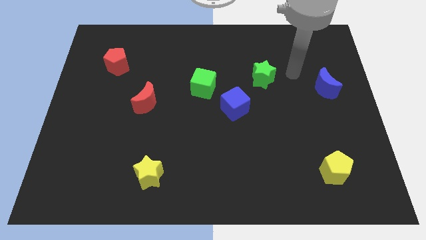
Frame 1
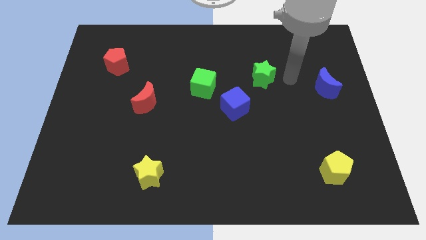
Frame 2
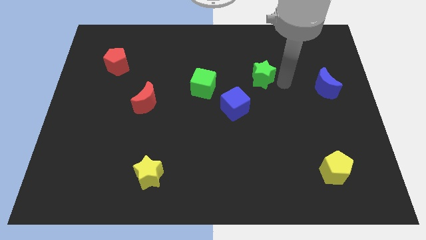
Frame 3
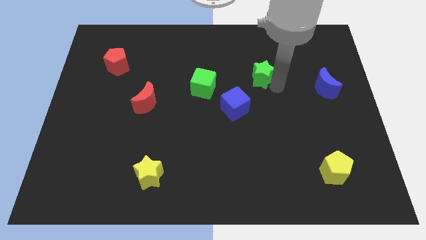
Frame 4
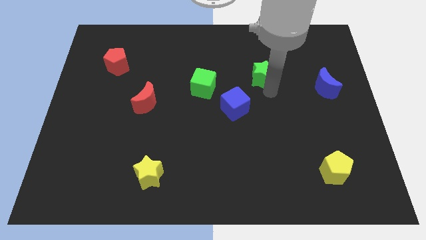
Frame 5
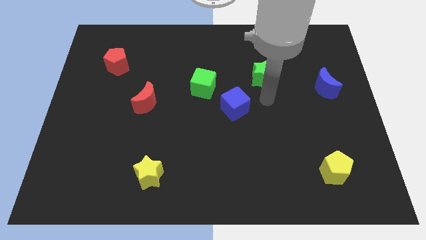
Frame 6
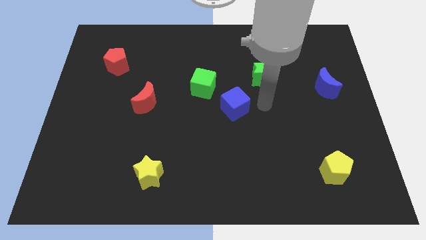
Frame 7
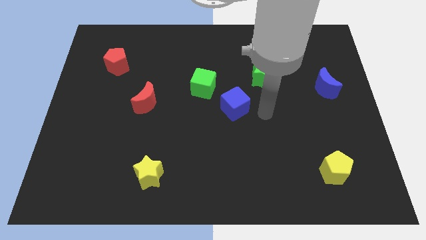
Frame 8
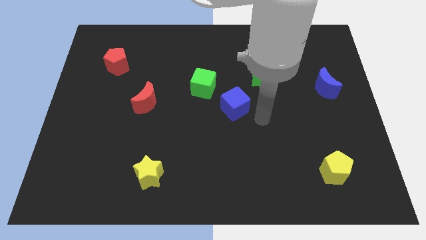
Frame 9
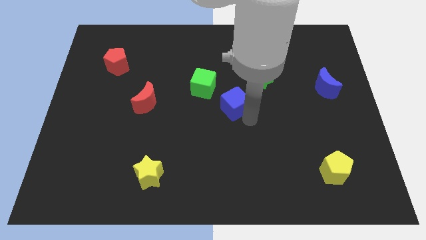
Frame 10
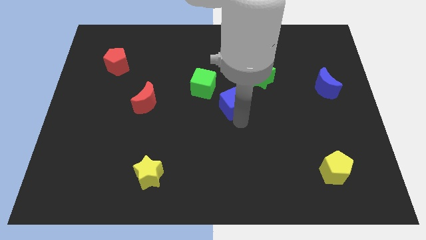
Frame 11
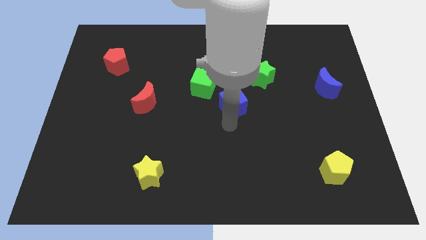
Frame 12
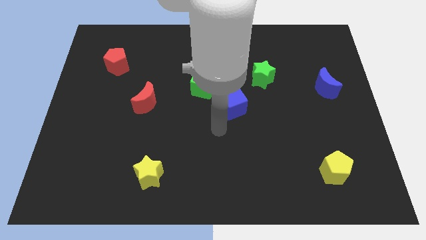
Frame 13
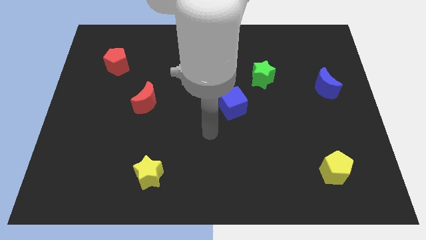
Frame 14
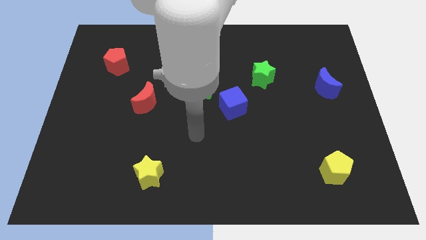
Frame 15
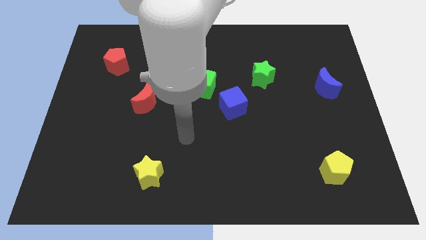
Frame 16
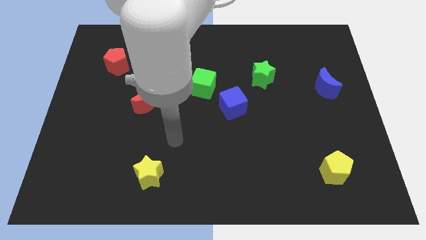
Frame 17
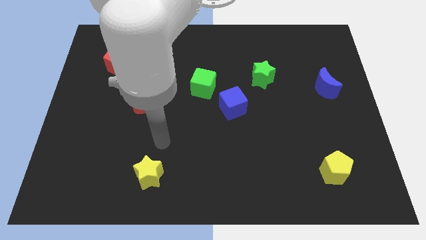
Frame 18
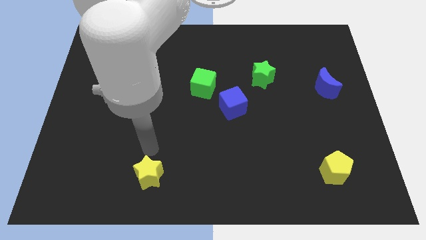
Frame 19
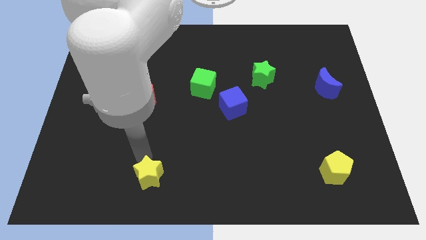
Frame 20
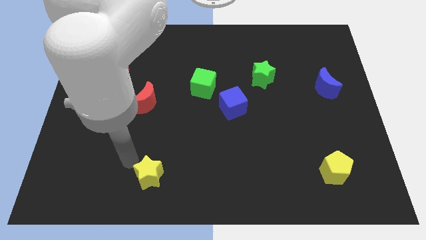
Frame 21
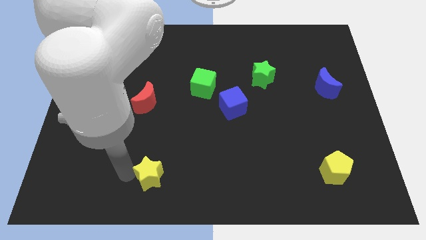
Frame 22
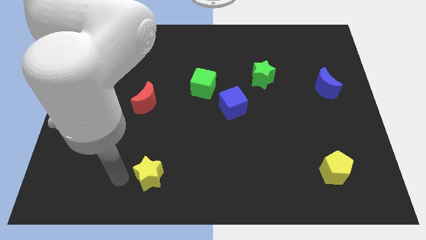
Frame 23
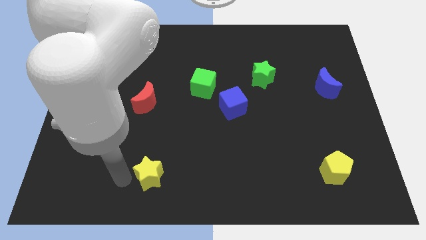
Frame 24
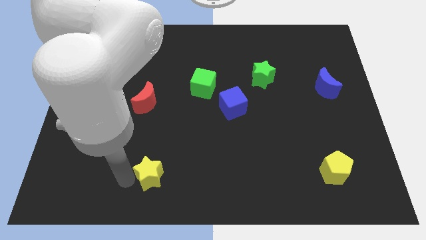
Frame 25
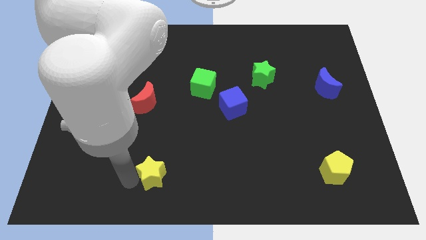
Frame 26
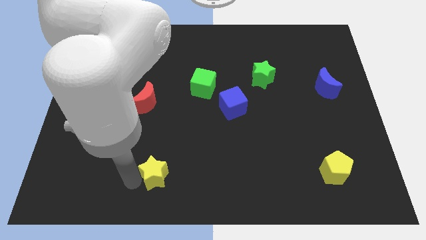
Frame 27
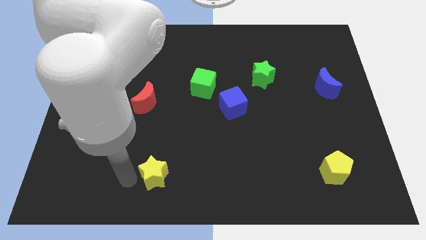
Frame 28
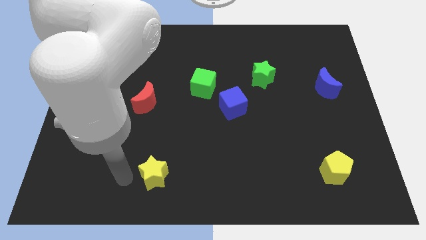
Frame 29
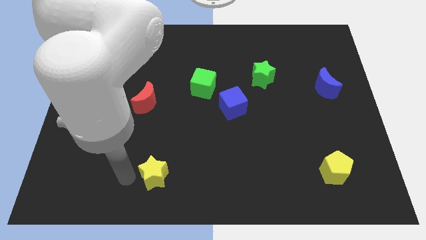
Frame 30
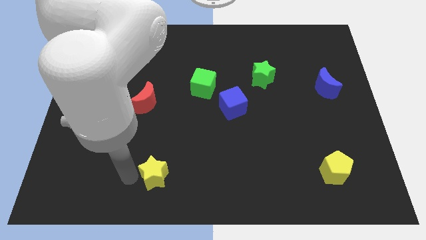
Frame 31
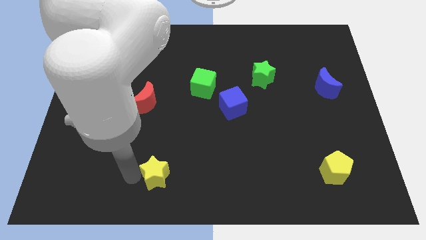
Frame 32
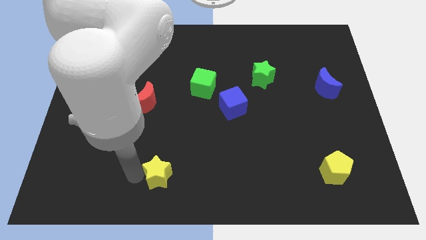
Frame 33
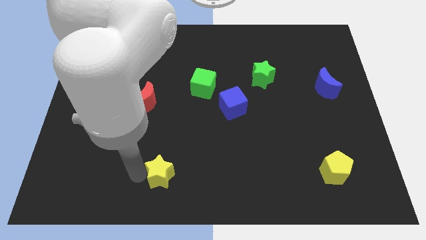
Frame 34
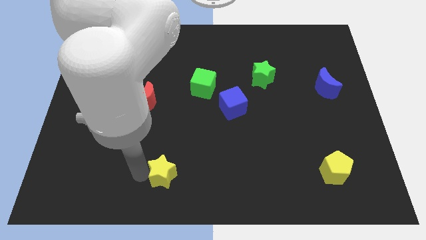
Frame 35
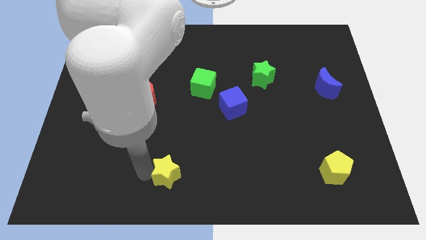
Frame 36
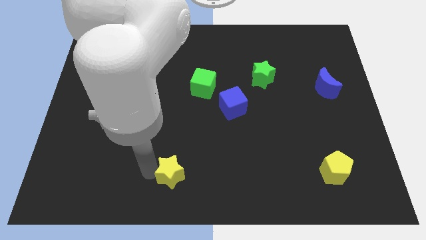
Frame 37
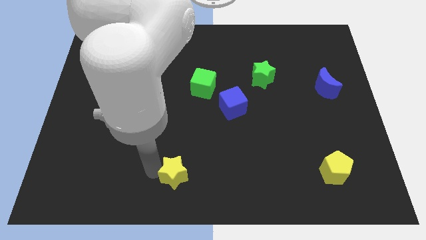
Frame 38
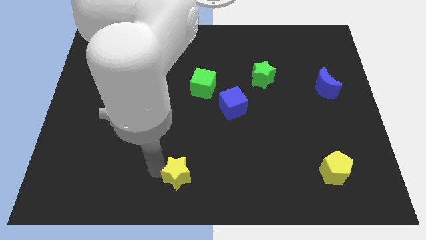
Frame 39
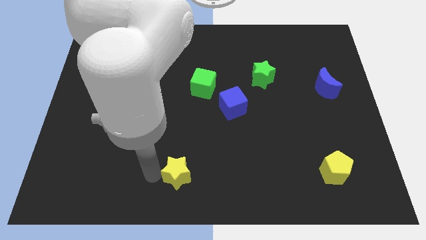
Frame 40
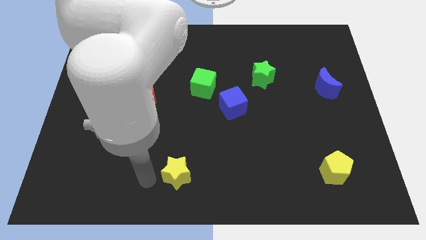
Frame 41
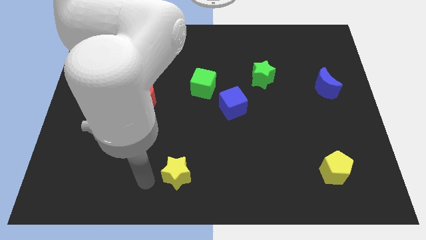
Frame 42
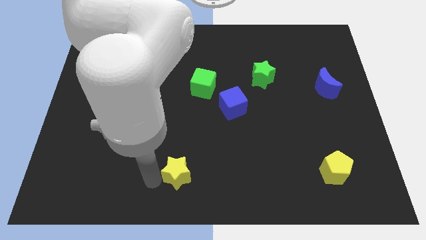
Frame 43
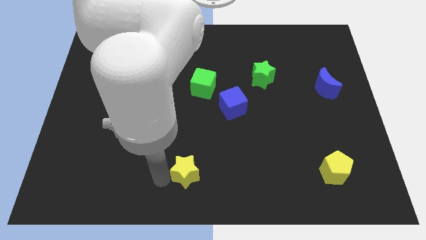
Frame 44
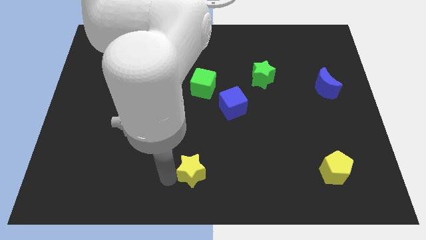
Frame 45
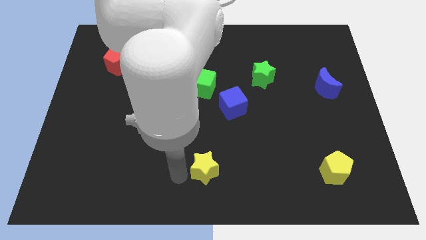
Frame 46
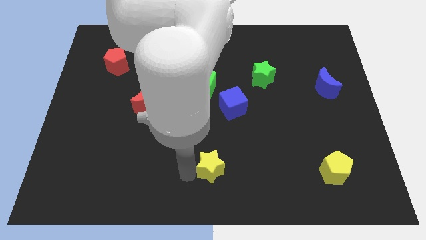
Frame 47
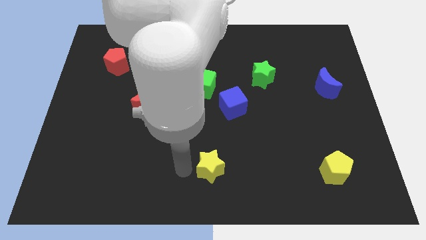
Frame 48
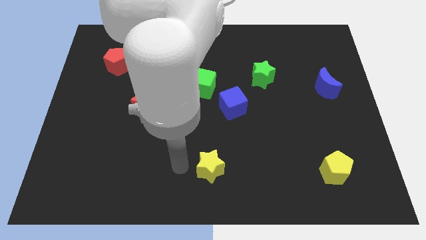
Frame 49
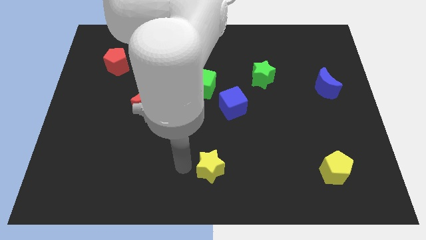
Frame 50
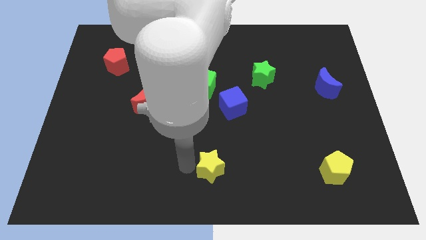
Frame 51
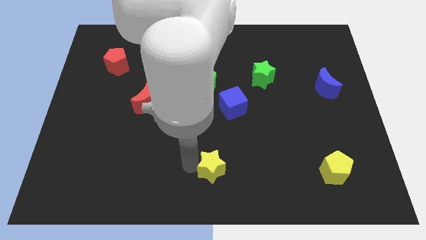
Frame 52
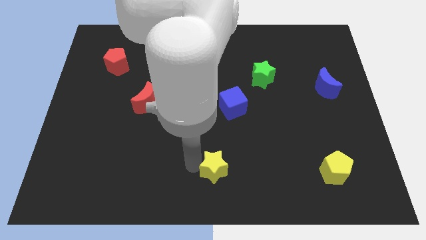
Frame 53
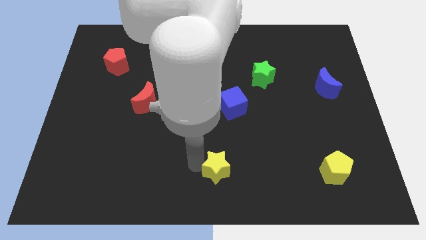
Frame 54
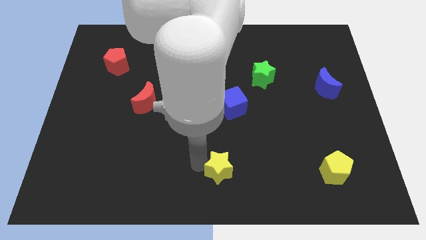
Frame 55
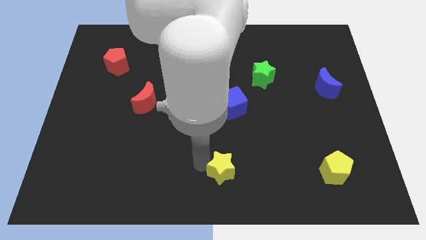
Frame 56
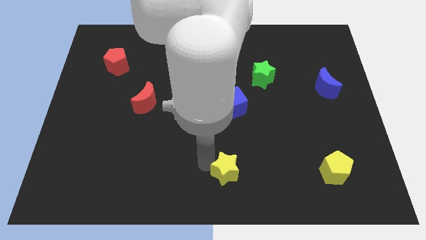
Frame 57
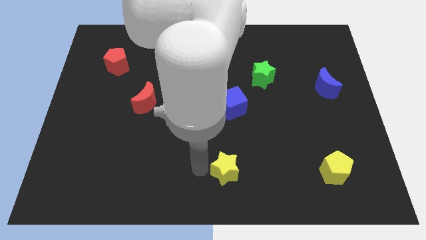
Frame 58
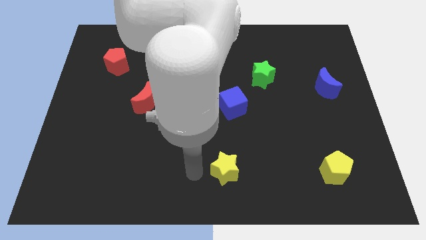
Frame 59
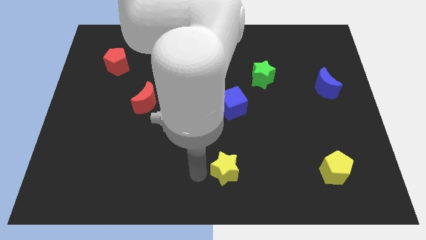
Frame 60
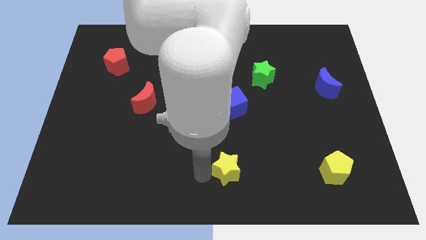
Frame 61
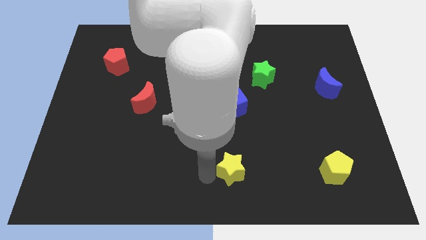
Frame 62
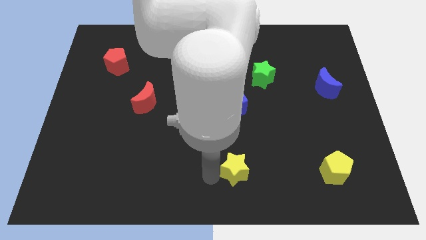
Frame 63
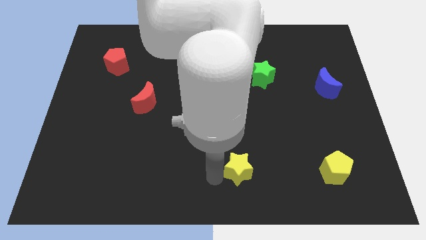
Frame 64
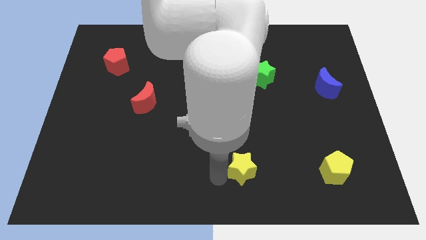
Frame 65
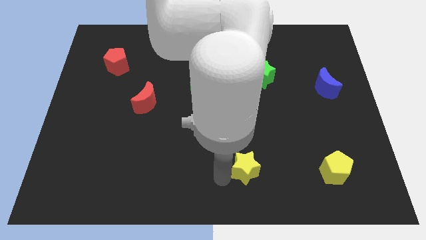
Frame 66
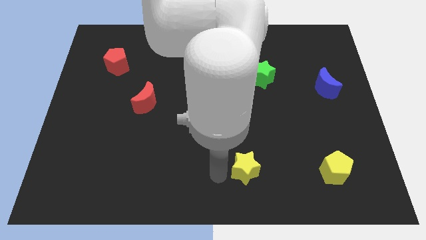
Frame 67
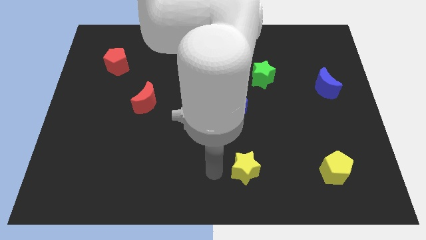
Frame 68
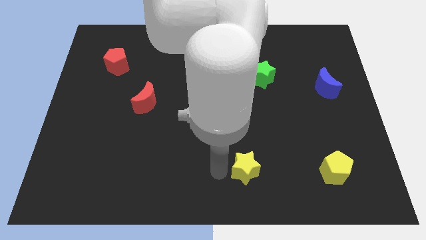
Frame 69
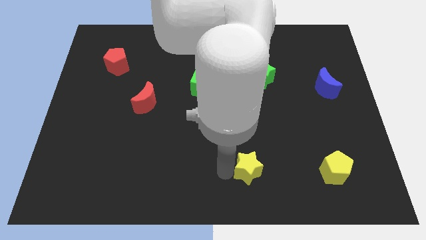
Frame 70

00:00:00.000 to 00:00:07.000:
move the yellow star right

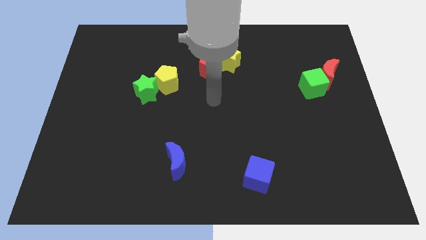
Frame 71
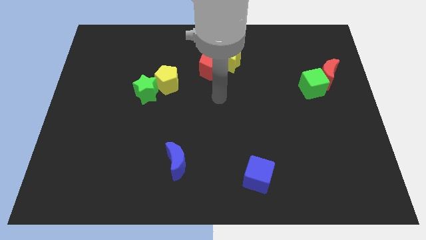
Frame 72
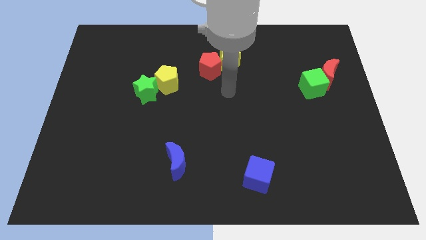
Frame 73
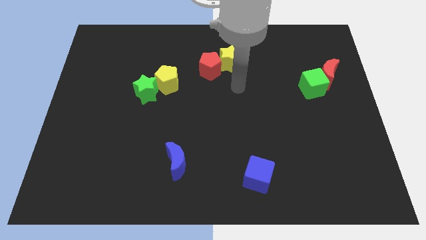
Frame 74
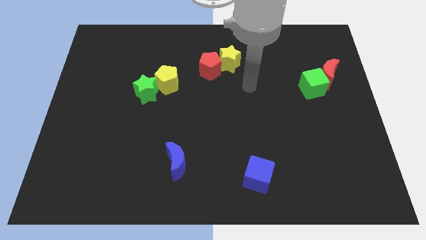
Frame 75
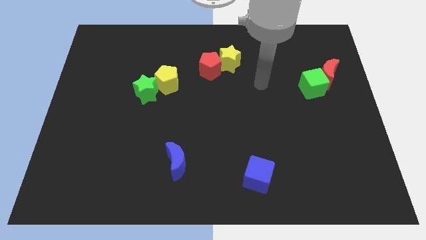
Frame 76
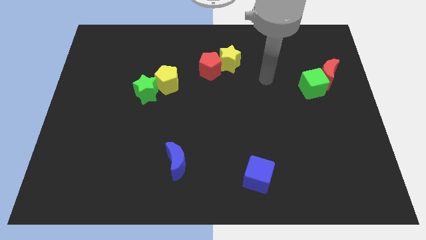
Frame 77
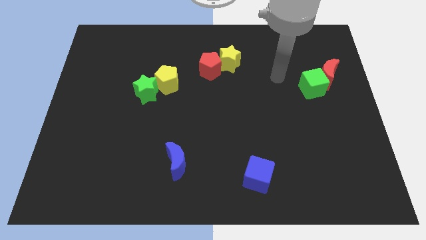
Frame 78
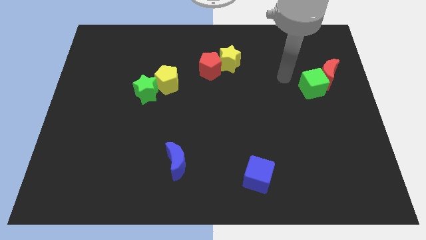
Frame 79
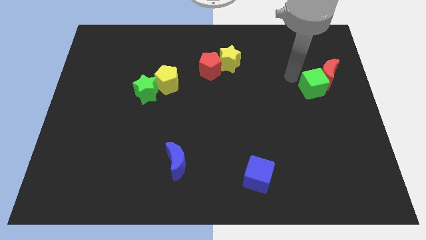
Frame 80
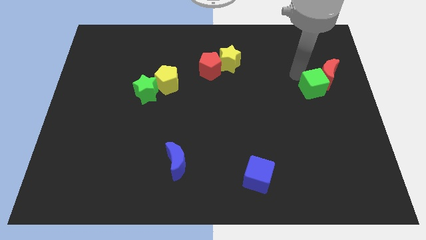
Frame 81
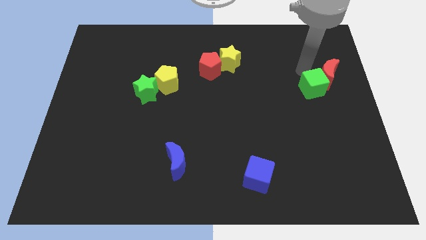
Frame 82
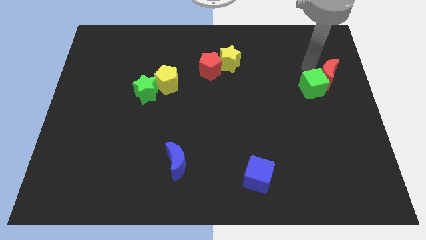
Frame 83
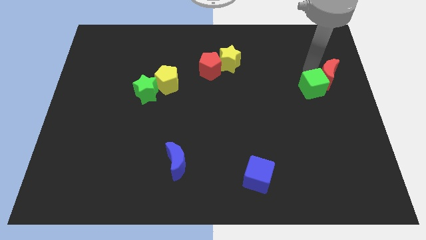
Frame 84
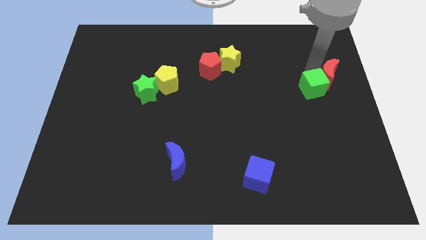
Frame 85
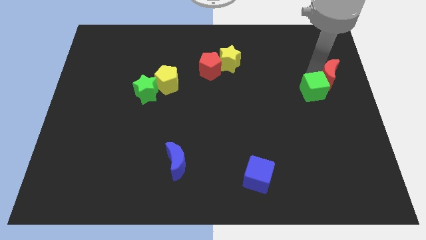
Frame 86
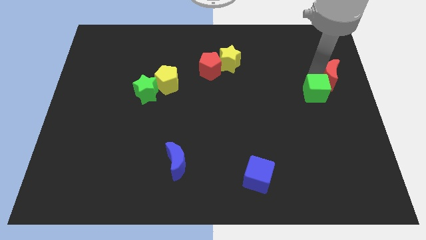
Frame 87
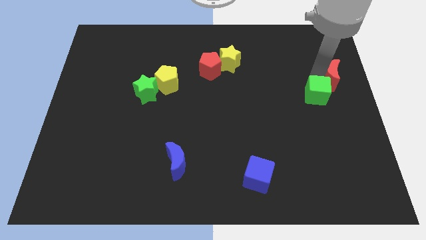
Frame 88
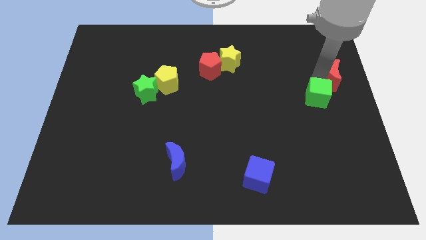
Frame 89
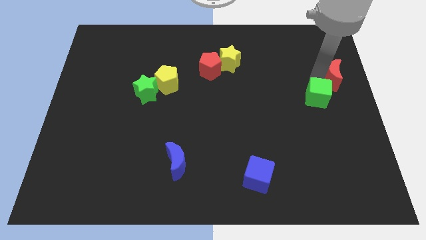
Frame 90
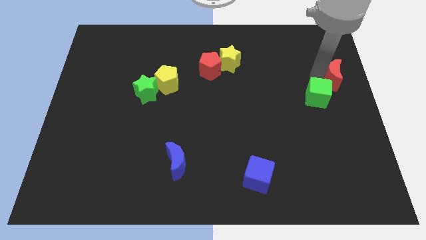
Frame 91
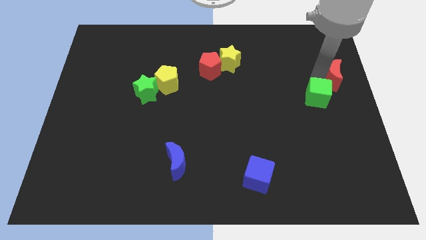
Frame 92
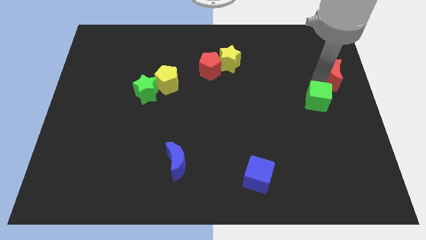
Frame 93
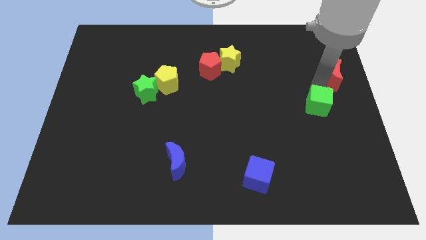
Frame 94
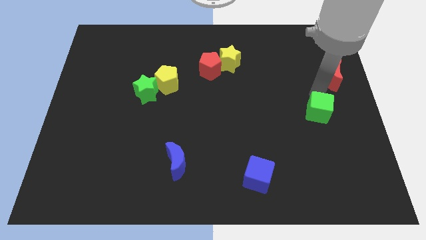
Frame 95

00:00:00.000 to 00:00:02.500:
move the green cube downwards slightly
